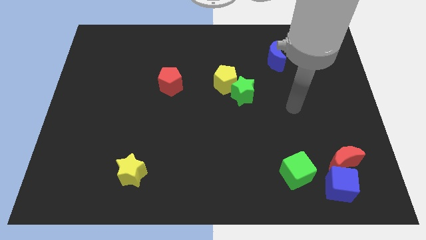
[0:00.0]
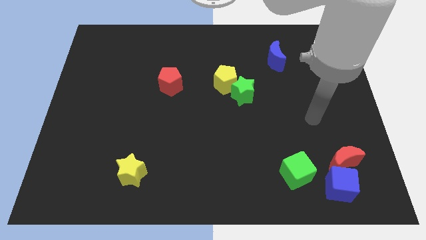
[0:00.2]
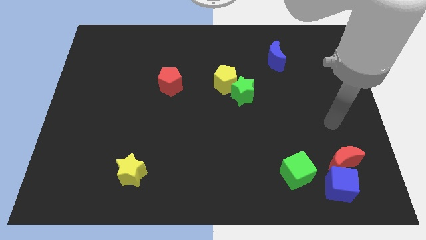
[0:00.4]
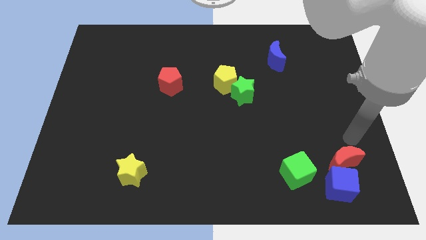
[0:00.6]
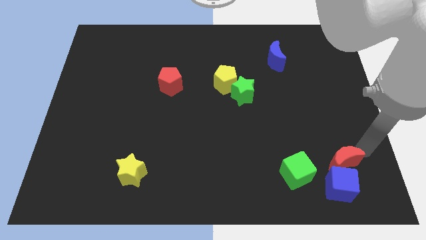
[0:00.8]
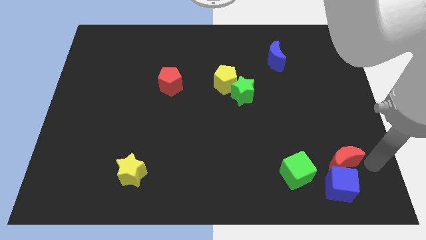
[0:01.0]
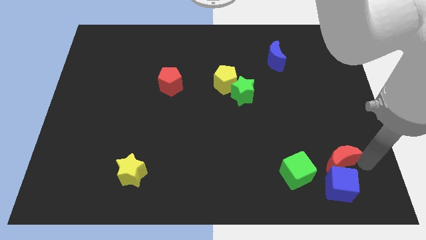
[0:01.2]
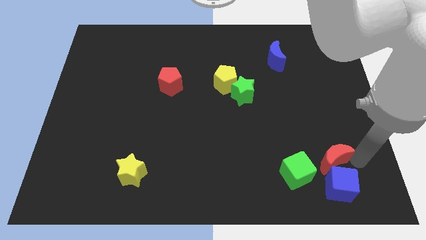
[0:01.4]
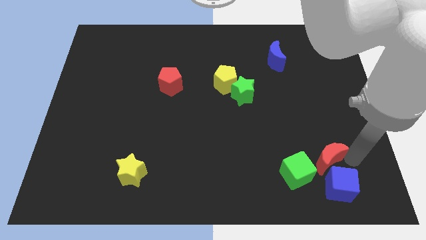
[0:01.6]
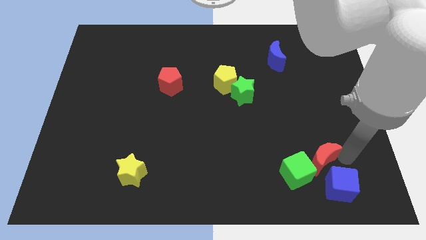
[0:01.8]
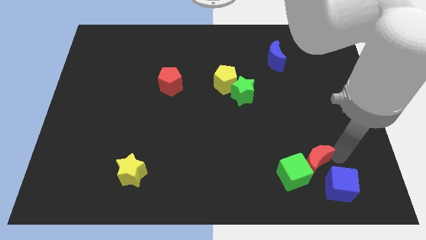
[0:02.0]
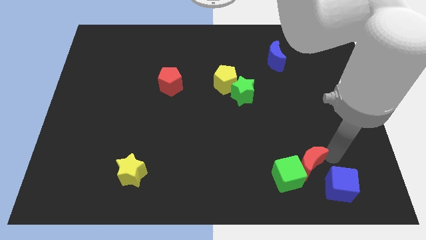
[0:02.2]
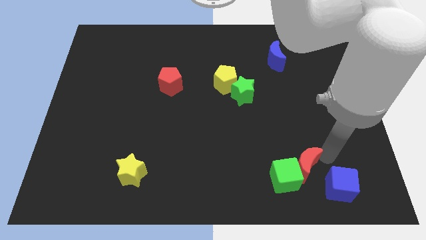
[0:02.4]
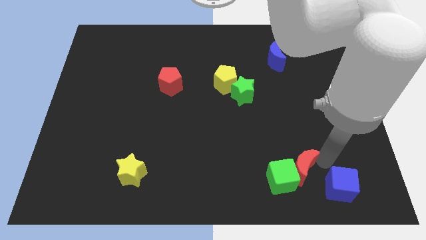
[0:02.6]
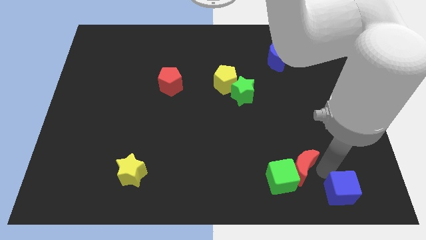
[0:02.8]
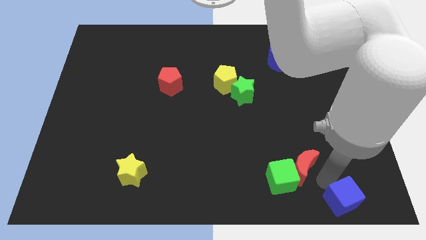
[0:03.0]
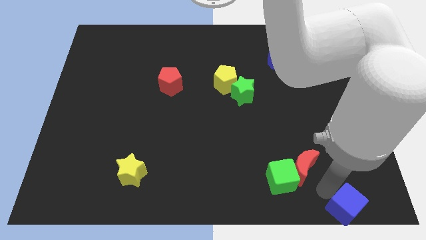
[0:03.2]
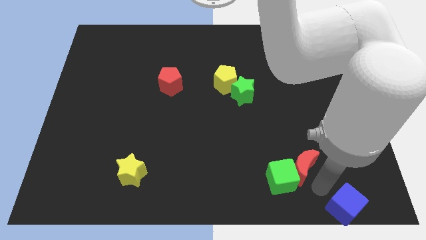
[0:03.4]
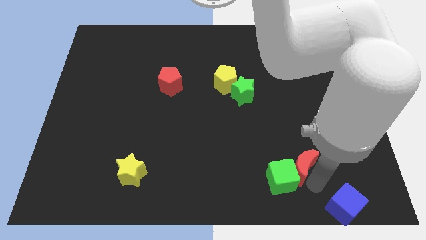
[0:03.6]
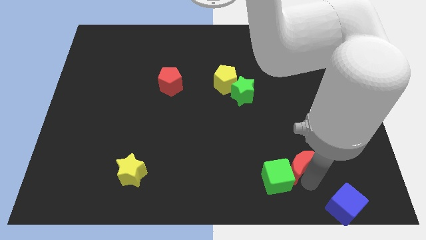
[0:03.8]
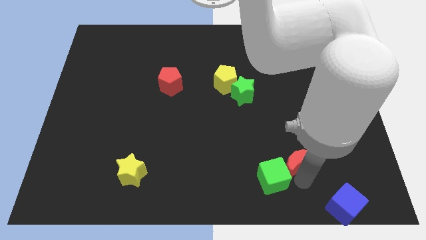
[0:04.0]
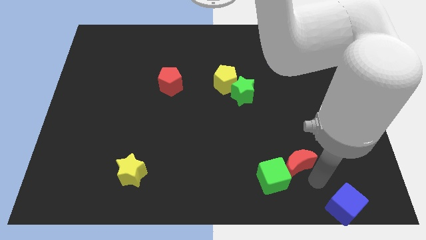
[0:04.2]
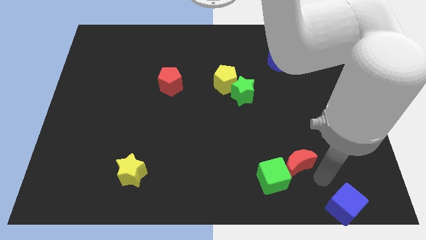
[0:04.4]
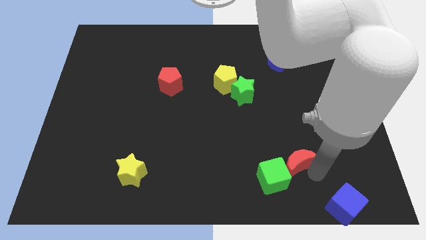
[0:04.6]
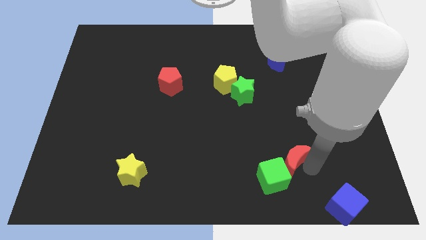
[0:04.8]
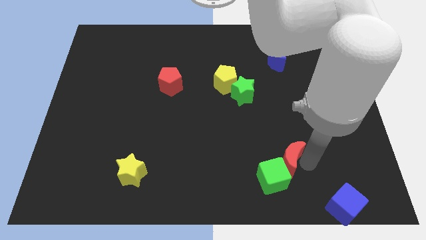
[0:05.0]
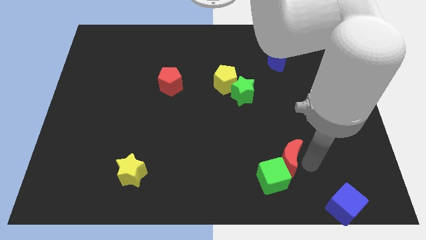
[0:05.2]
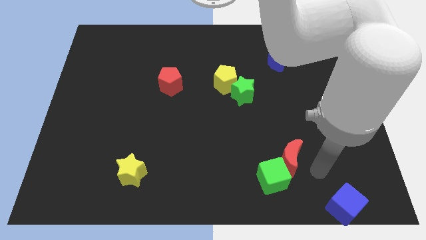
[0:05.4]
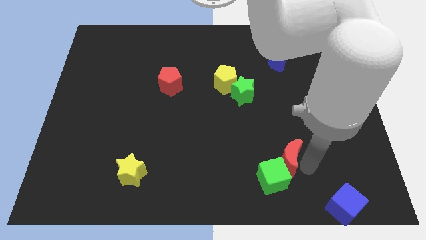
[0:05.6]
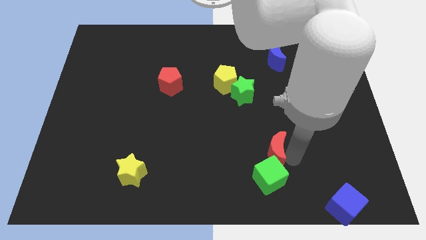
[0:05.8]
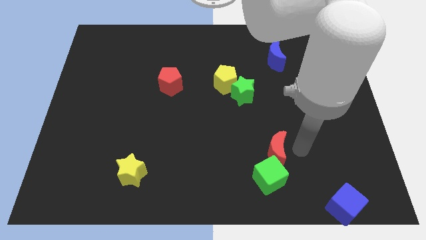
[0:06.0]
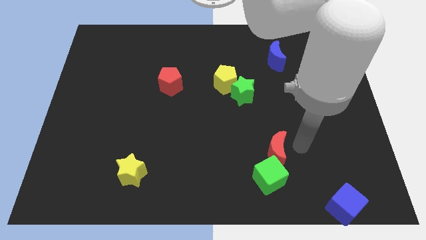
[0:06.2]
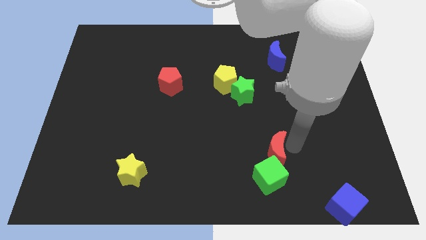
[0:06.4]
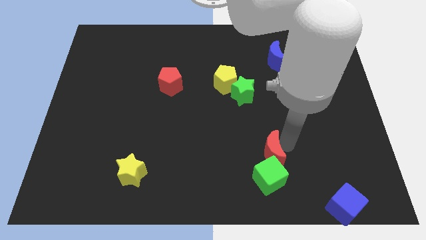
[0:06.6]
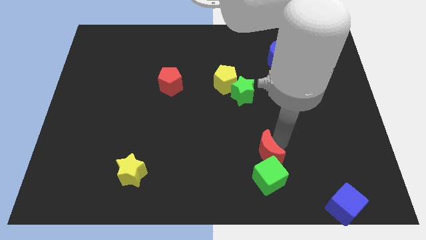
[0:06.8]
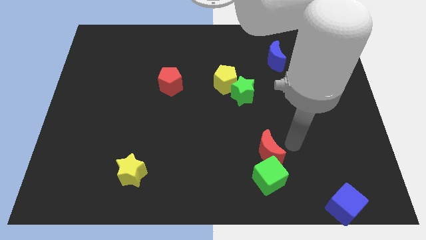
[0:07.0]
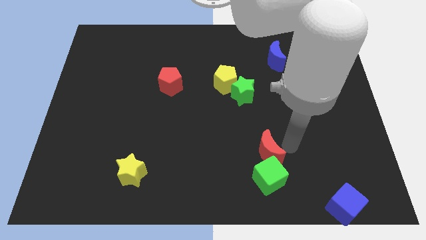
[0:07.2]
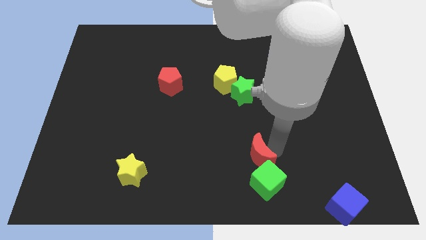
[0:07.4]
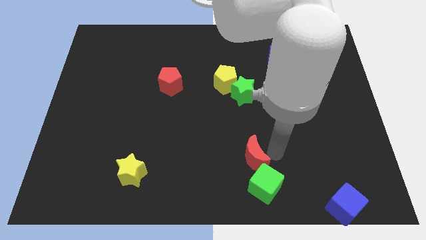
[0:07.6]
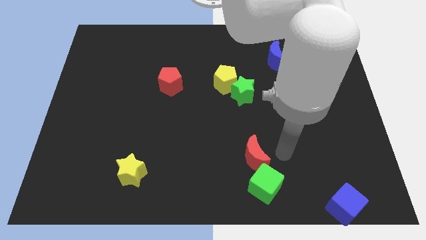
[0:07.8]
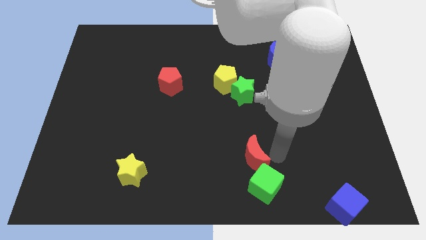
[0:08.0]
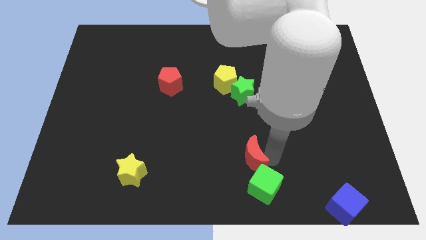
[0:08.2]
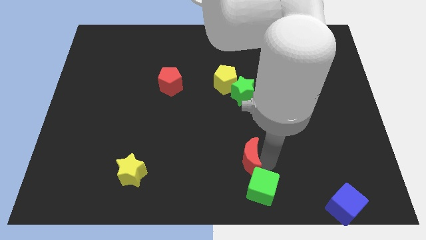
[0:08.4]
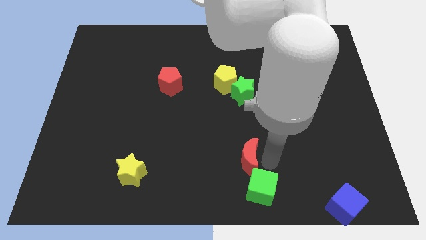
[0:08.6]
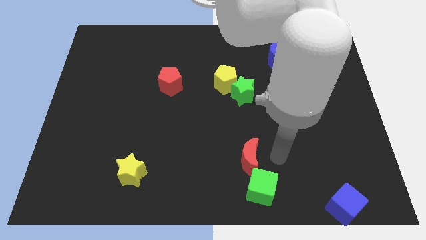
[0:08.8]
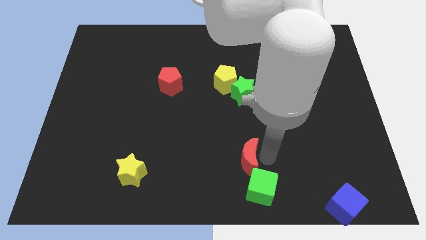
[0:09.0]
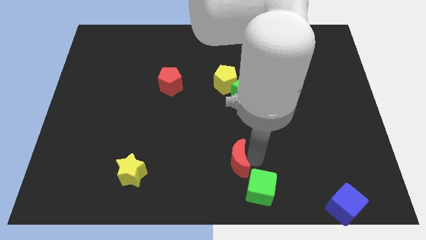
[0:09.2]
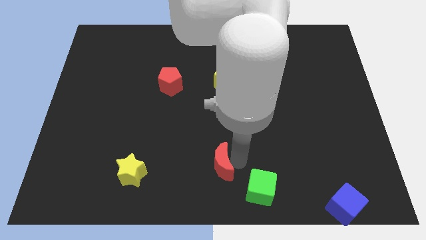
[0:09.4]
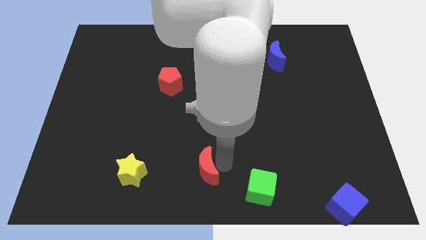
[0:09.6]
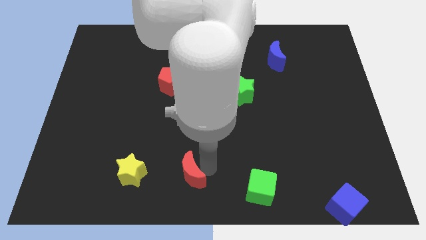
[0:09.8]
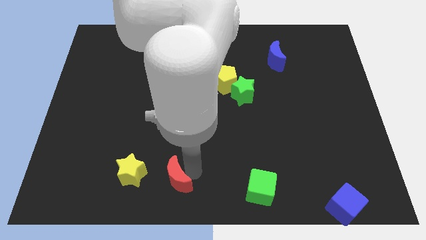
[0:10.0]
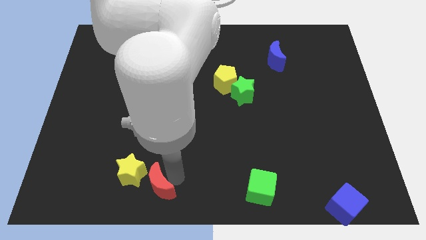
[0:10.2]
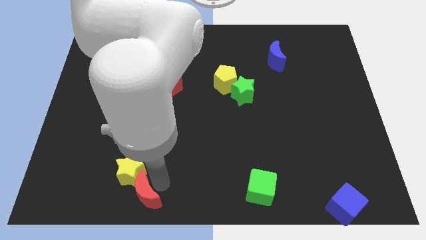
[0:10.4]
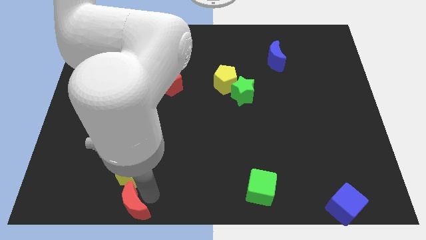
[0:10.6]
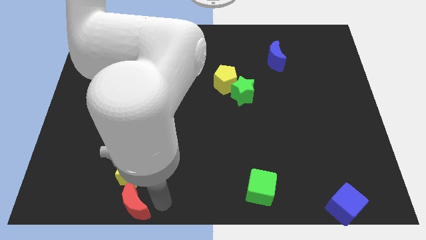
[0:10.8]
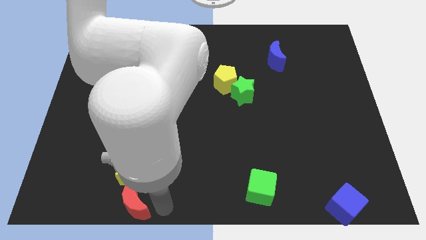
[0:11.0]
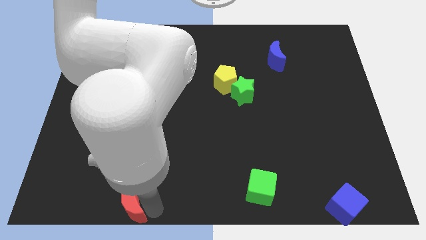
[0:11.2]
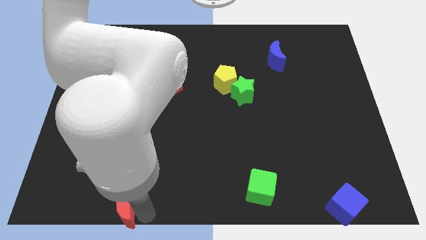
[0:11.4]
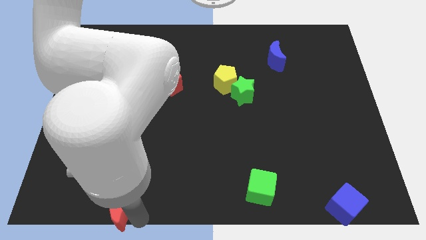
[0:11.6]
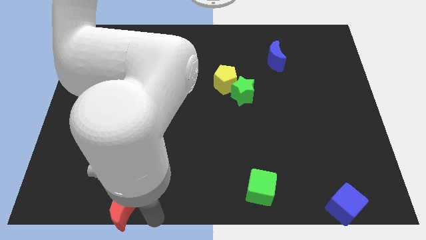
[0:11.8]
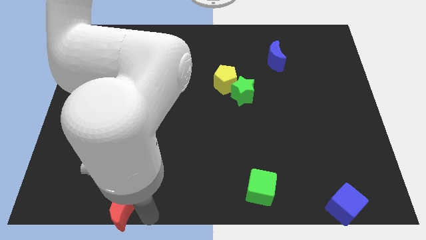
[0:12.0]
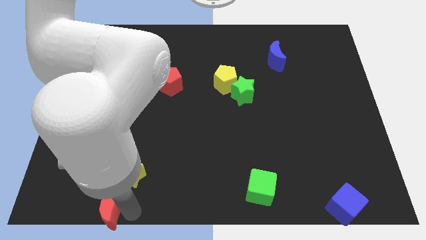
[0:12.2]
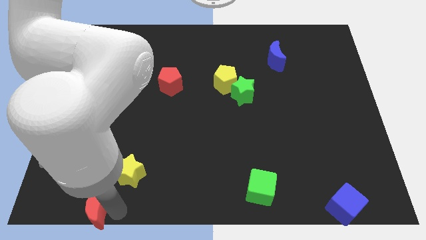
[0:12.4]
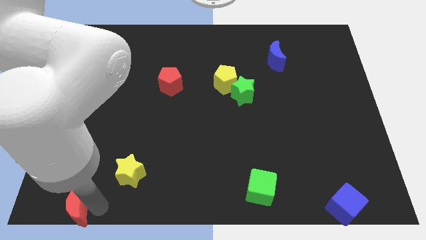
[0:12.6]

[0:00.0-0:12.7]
put the red moon to the bottom left of the board
